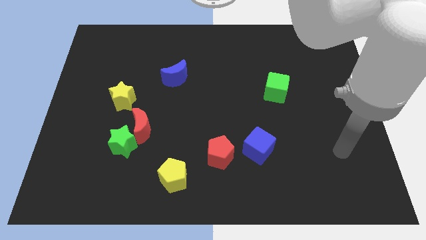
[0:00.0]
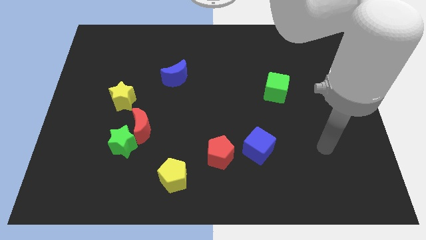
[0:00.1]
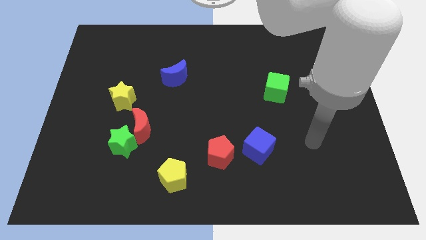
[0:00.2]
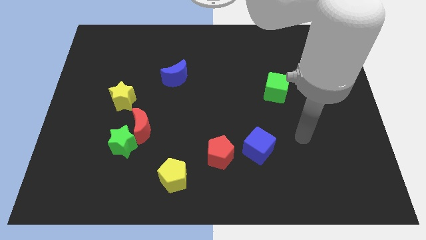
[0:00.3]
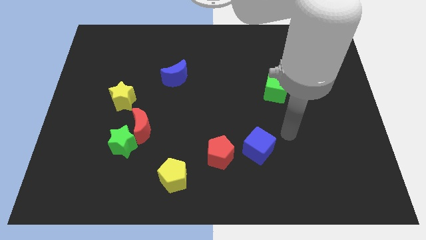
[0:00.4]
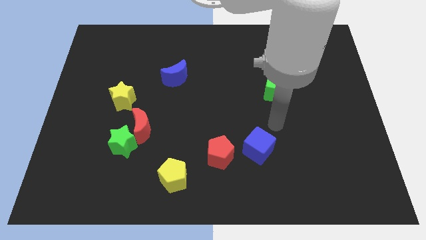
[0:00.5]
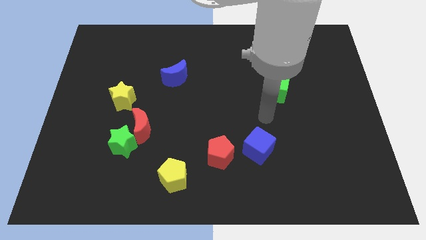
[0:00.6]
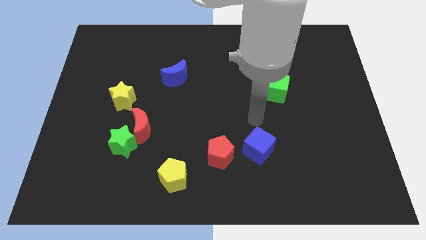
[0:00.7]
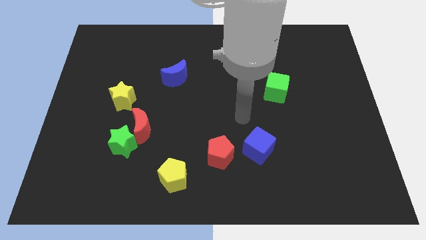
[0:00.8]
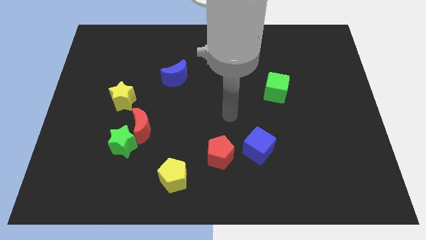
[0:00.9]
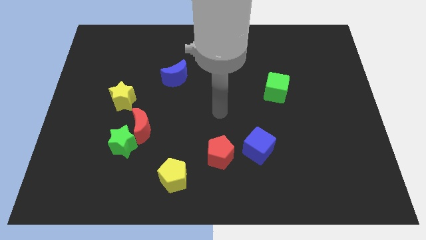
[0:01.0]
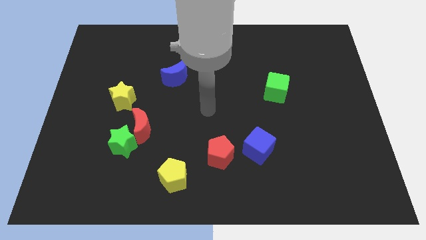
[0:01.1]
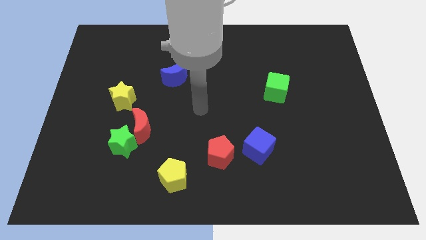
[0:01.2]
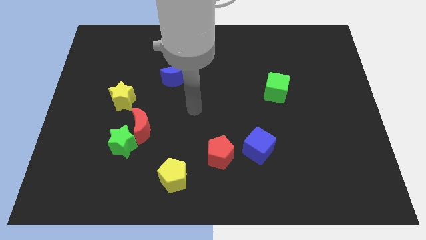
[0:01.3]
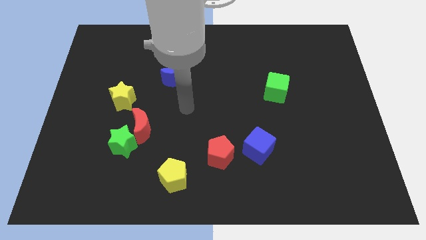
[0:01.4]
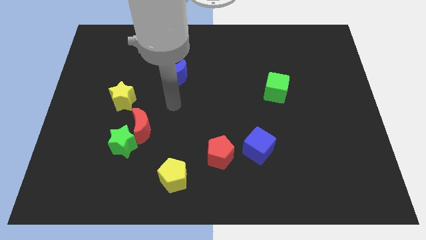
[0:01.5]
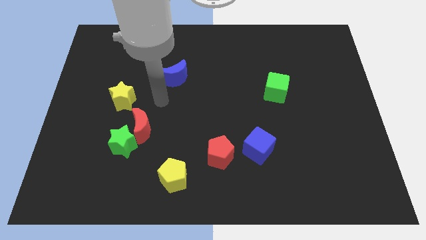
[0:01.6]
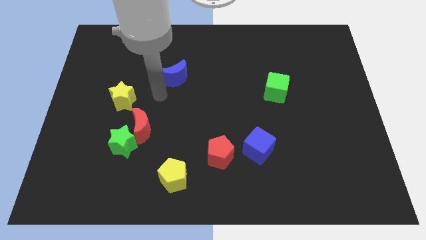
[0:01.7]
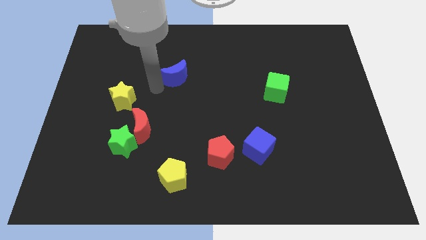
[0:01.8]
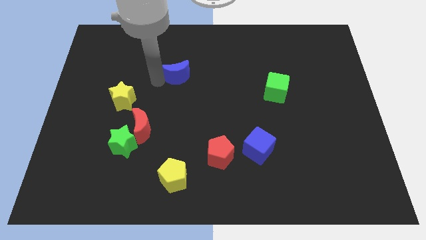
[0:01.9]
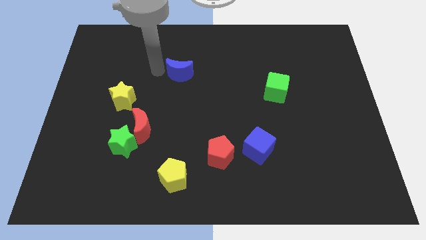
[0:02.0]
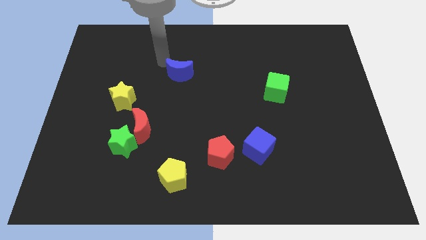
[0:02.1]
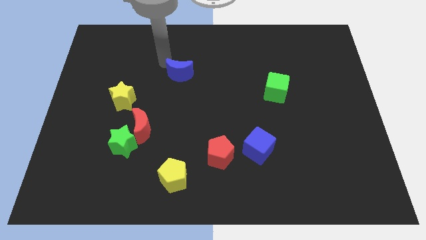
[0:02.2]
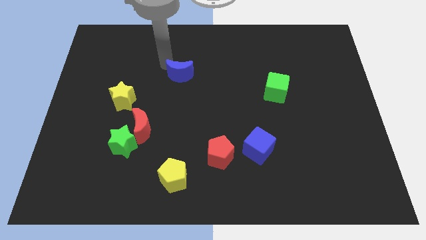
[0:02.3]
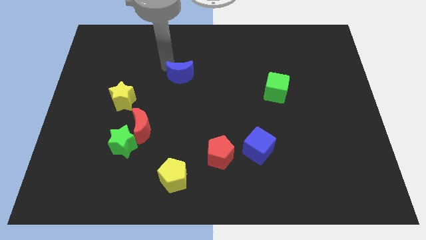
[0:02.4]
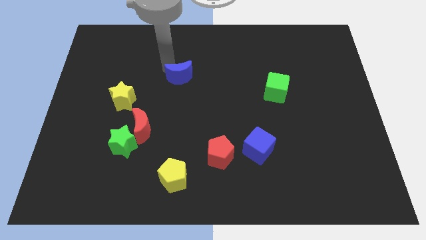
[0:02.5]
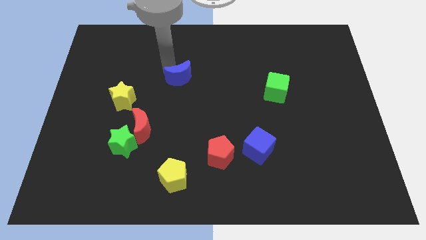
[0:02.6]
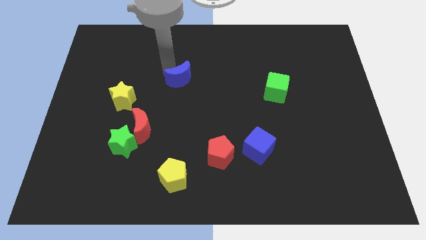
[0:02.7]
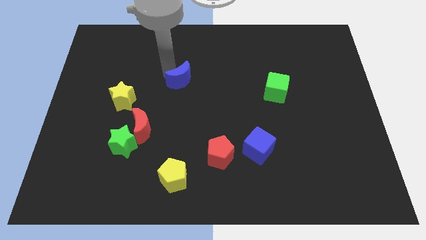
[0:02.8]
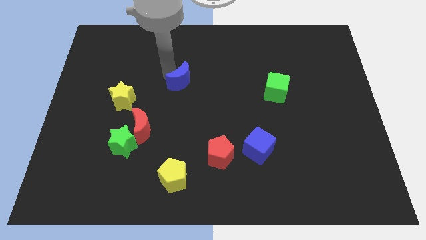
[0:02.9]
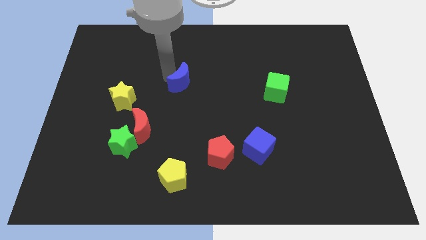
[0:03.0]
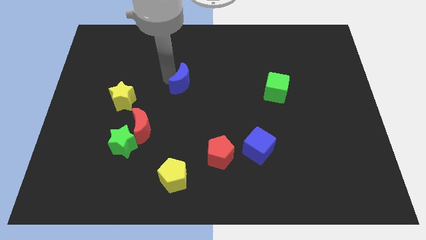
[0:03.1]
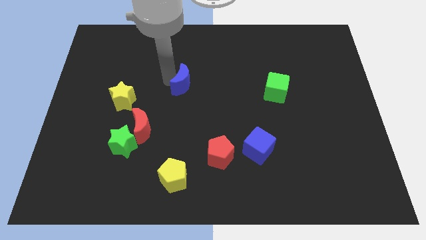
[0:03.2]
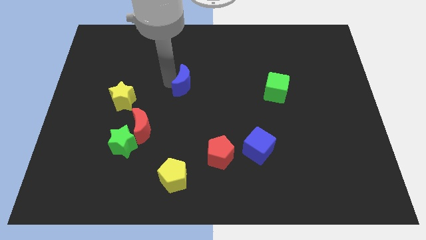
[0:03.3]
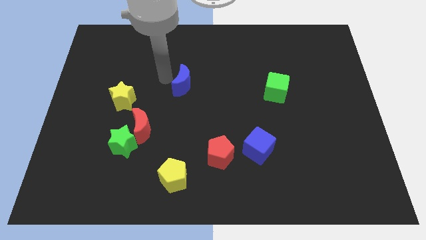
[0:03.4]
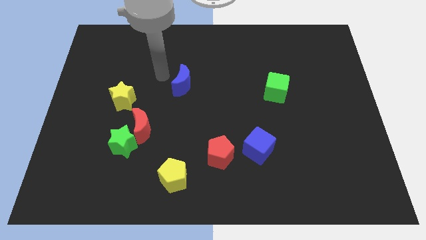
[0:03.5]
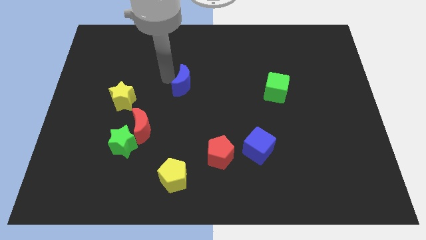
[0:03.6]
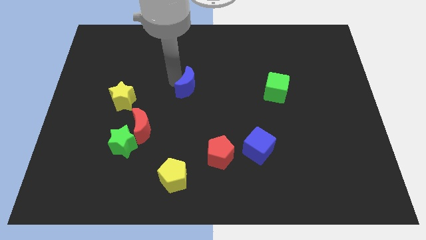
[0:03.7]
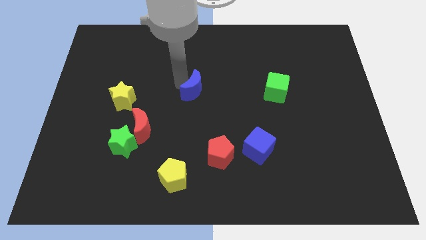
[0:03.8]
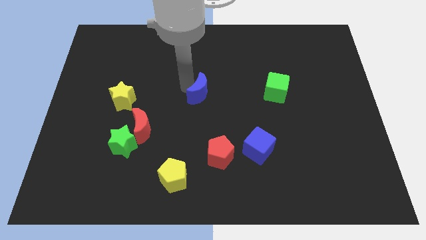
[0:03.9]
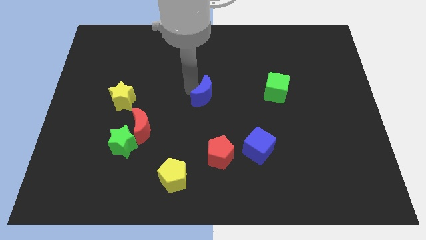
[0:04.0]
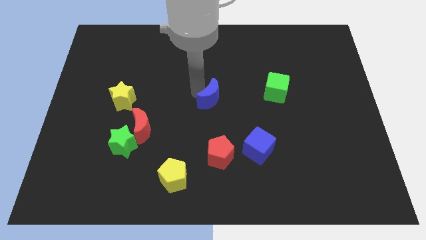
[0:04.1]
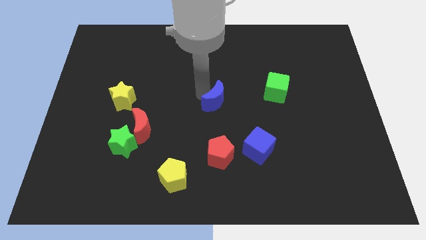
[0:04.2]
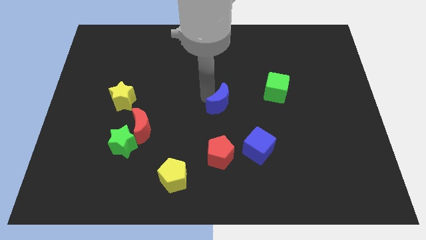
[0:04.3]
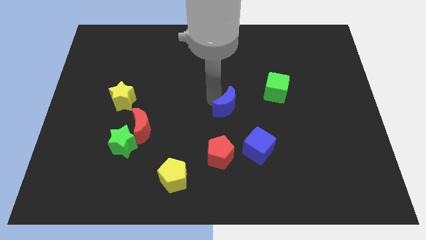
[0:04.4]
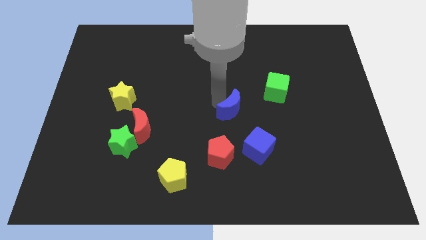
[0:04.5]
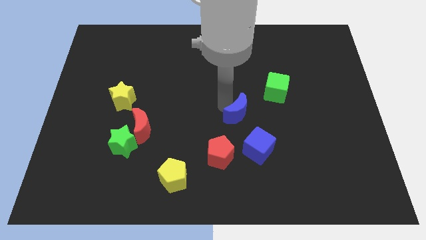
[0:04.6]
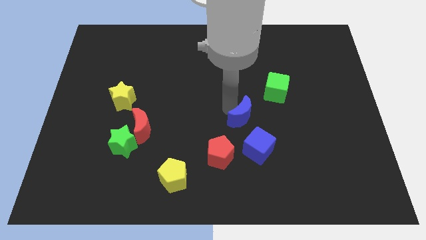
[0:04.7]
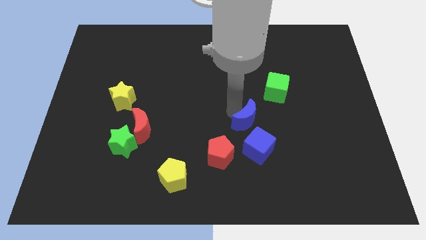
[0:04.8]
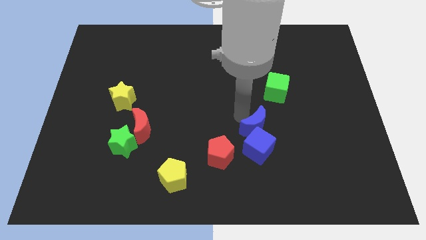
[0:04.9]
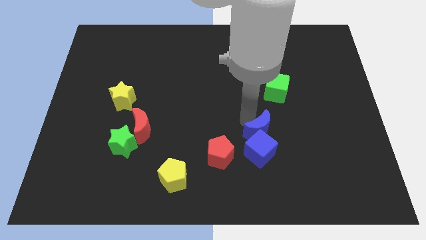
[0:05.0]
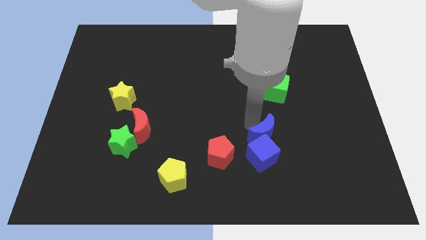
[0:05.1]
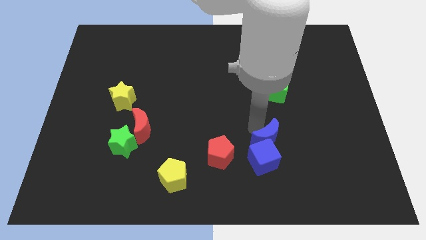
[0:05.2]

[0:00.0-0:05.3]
move the blue moon just right of the red pentagon

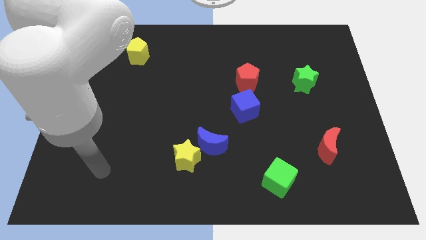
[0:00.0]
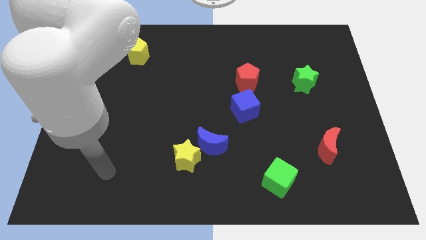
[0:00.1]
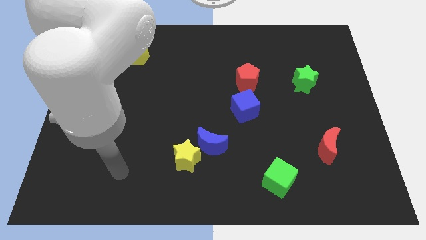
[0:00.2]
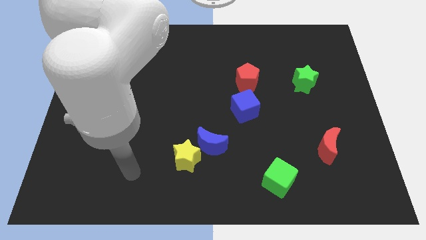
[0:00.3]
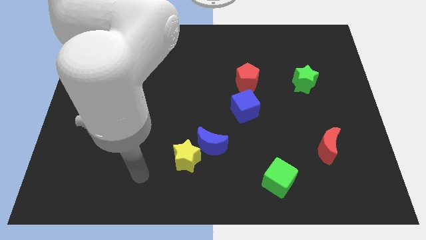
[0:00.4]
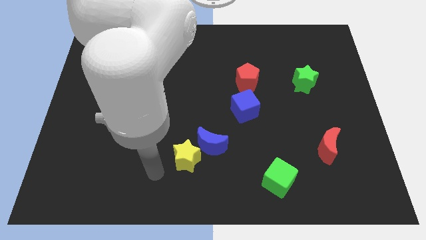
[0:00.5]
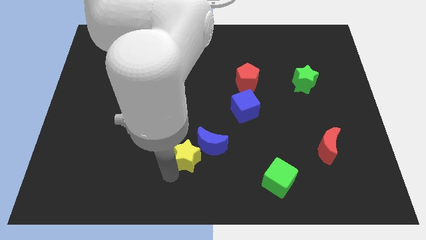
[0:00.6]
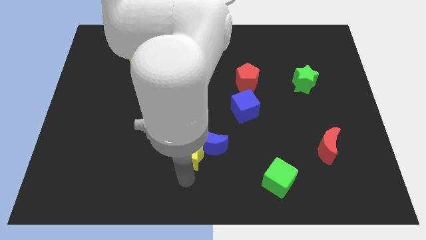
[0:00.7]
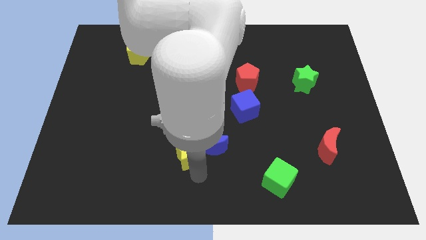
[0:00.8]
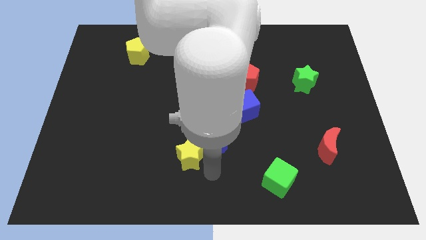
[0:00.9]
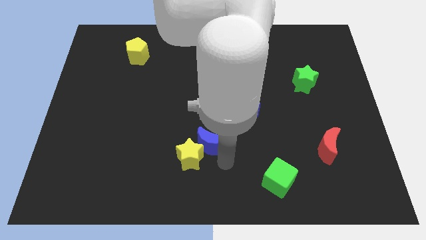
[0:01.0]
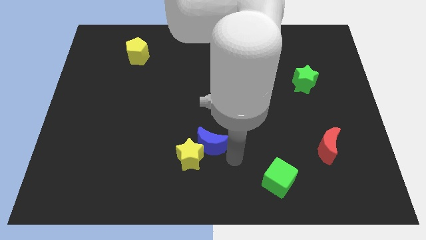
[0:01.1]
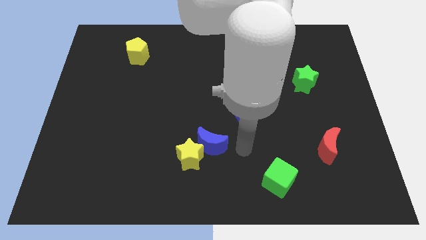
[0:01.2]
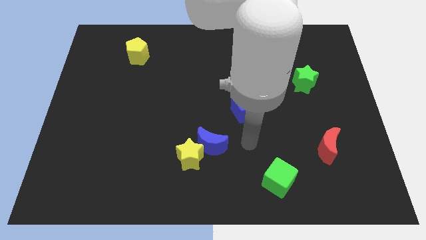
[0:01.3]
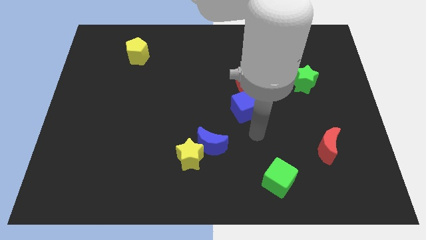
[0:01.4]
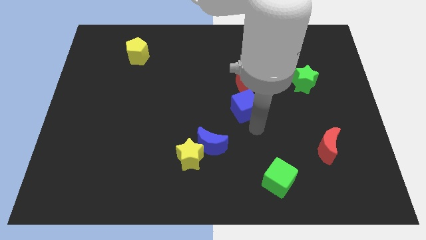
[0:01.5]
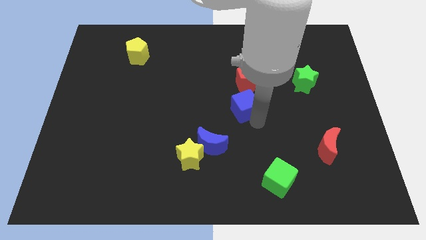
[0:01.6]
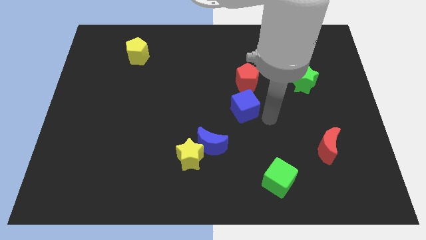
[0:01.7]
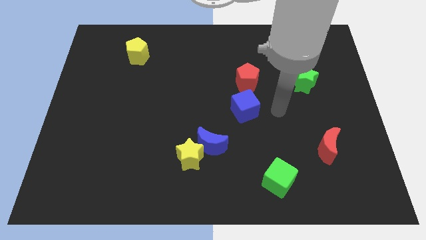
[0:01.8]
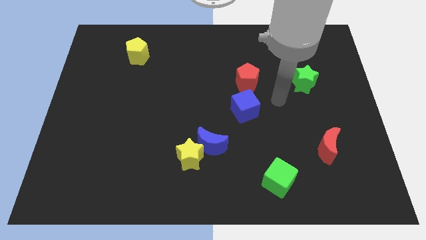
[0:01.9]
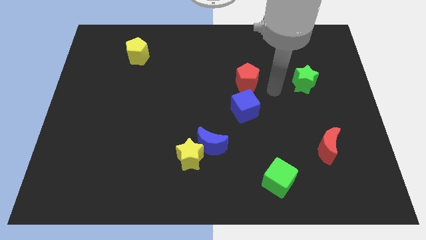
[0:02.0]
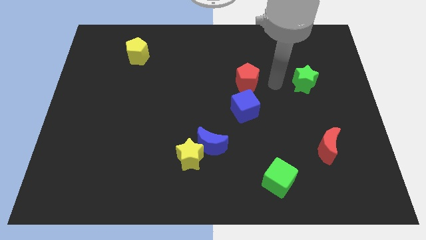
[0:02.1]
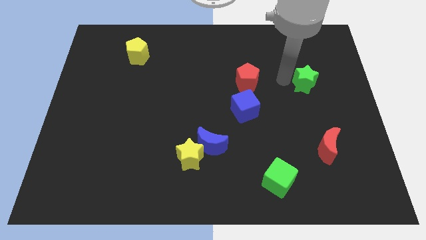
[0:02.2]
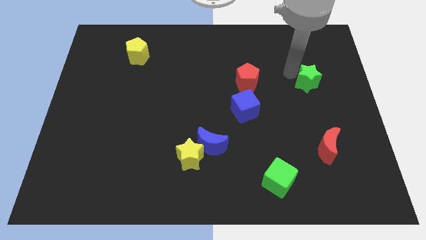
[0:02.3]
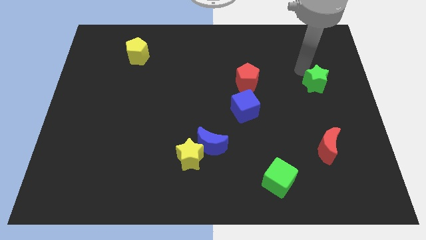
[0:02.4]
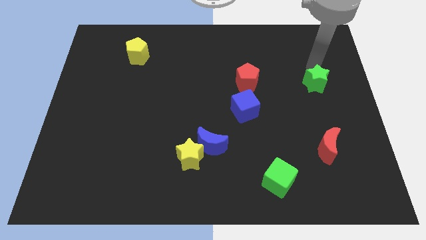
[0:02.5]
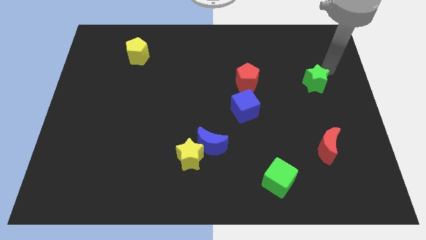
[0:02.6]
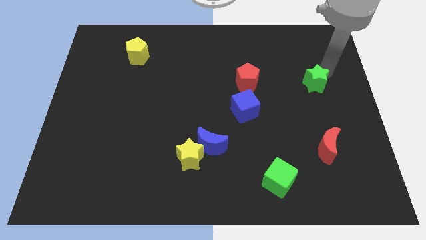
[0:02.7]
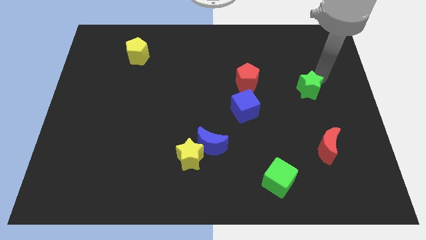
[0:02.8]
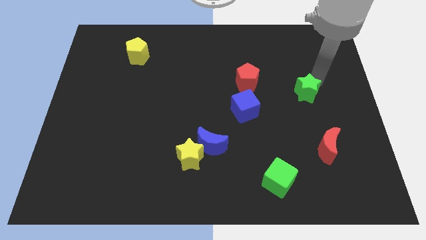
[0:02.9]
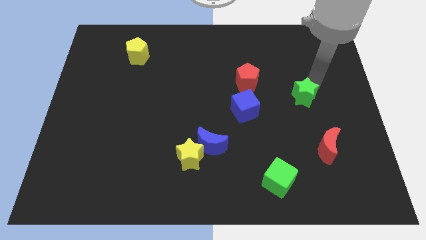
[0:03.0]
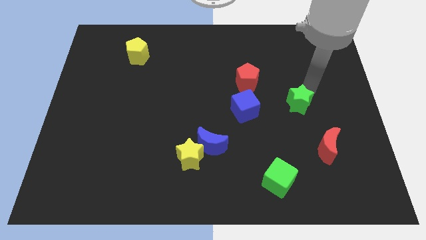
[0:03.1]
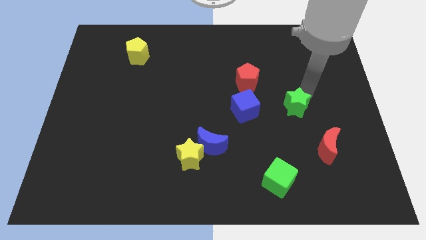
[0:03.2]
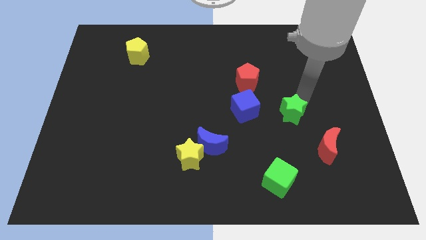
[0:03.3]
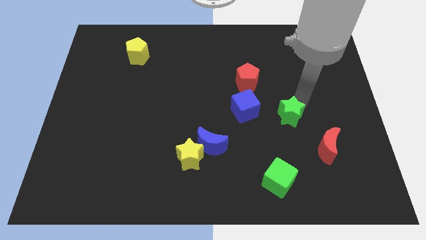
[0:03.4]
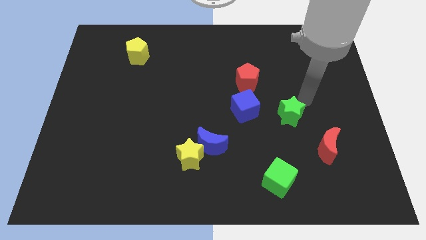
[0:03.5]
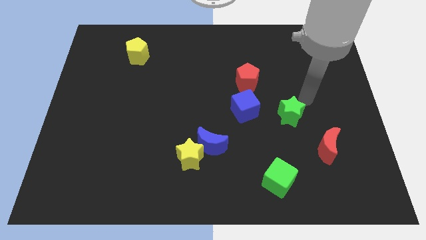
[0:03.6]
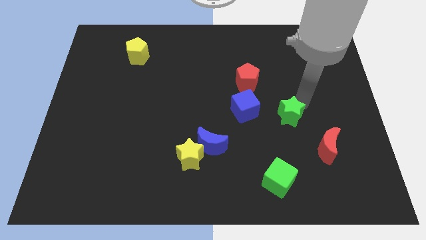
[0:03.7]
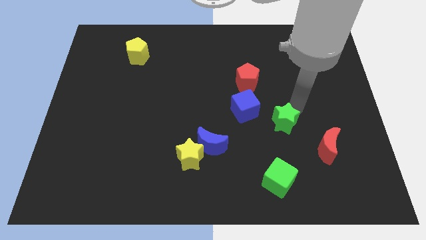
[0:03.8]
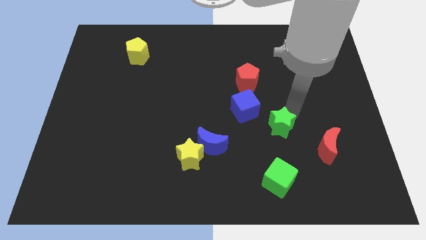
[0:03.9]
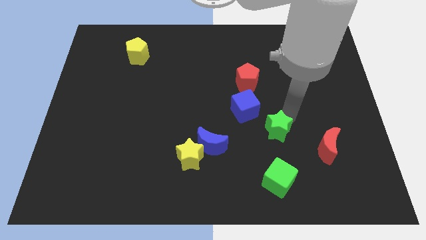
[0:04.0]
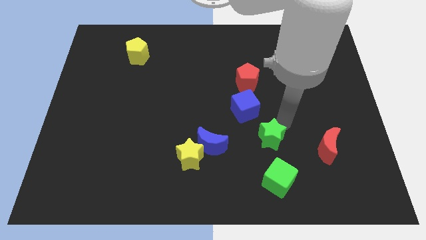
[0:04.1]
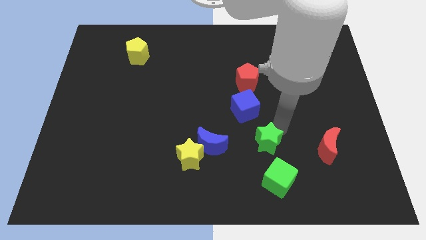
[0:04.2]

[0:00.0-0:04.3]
move the green star to the bottom of the blue cube
